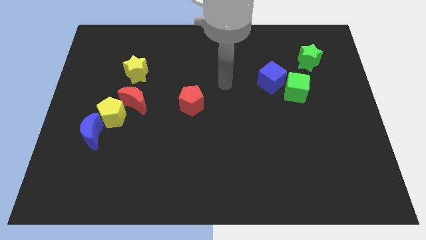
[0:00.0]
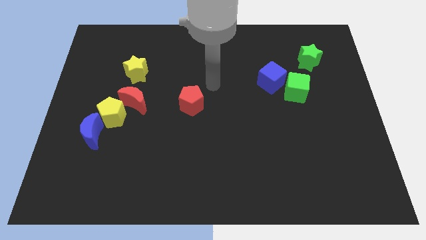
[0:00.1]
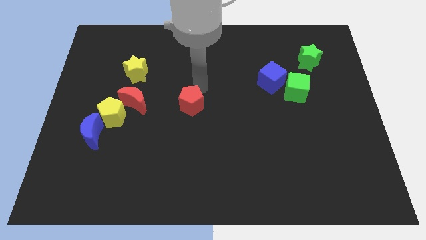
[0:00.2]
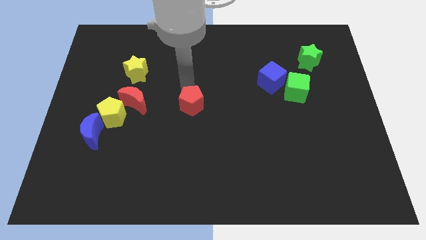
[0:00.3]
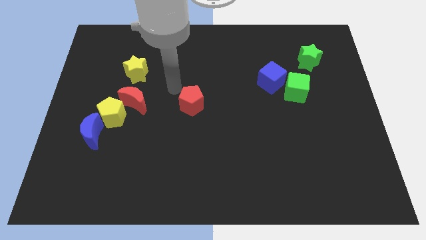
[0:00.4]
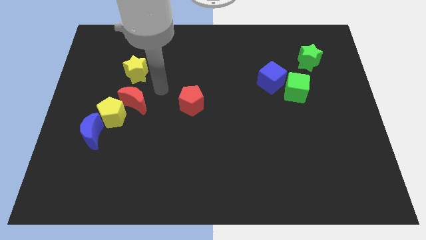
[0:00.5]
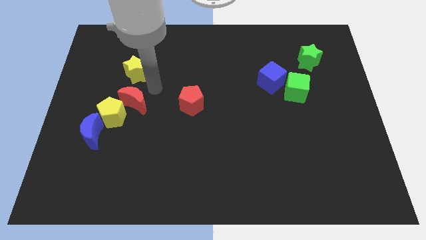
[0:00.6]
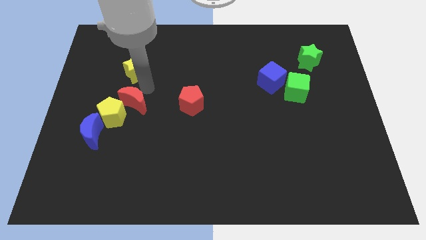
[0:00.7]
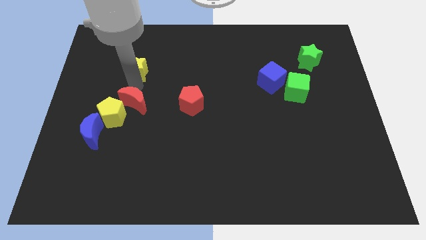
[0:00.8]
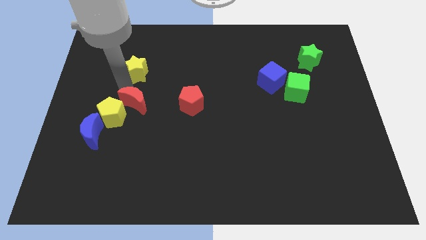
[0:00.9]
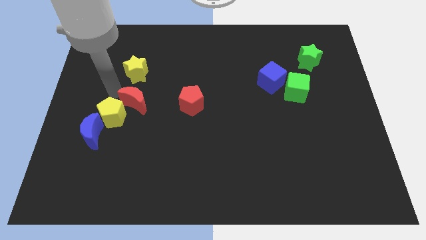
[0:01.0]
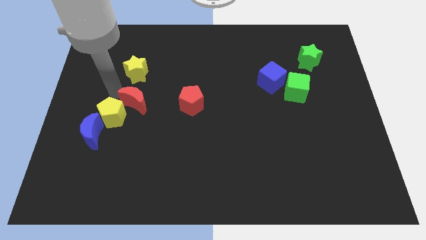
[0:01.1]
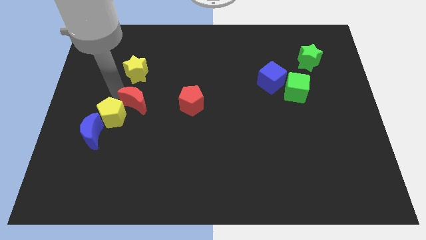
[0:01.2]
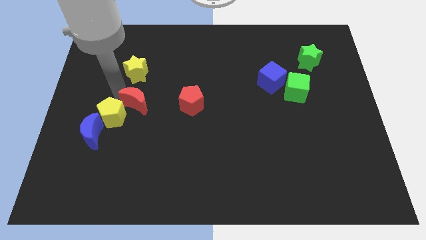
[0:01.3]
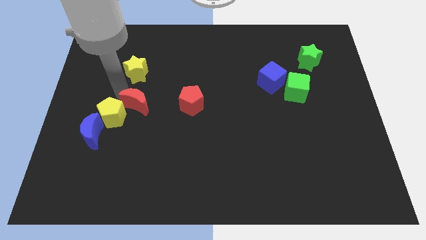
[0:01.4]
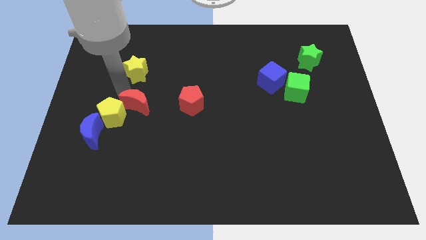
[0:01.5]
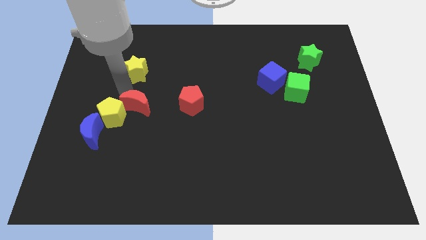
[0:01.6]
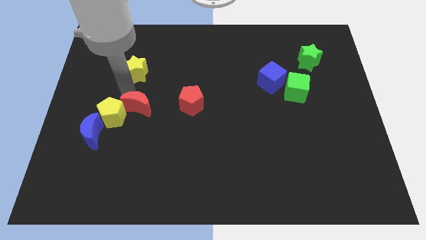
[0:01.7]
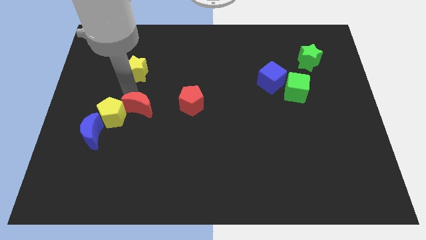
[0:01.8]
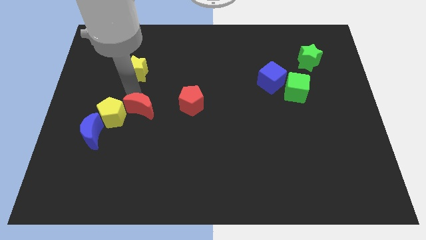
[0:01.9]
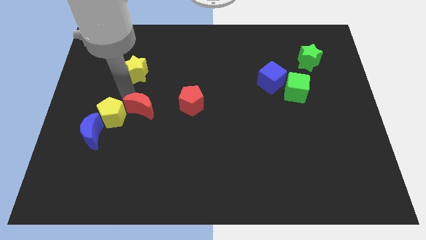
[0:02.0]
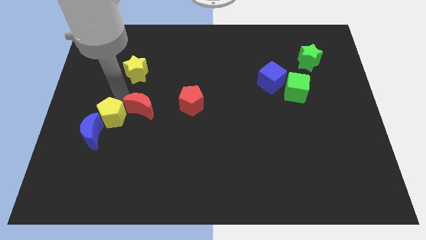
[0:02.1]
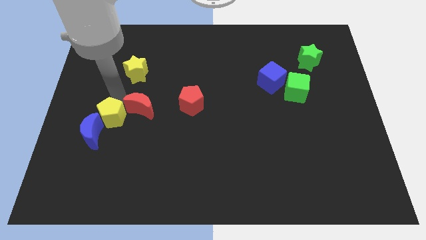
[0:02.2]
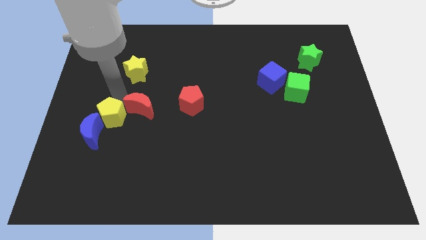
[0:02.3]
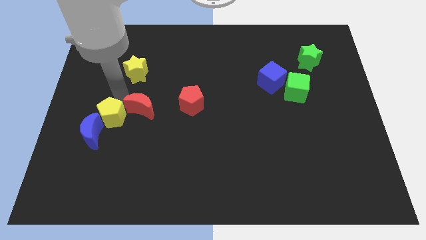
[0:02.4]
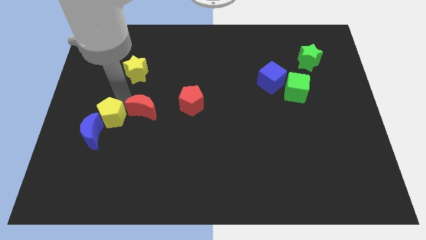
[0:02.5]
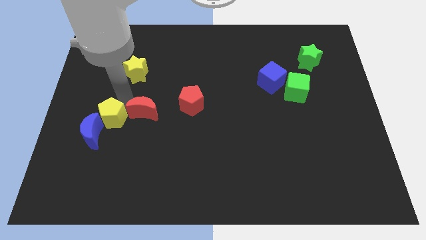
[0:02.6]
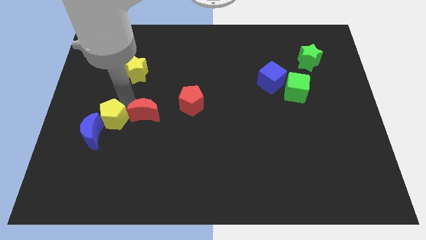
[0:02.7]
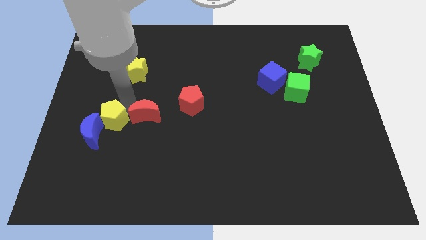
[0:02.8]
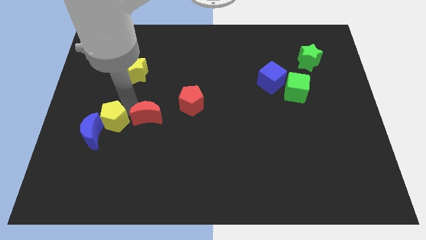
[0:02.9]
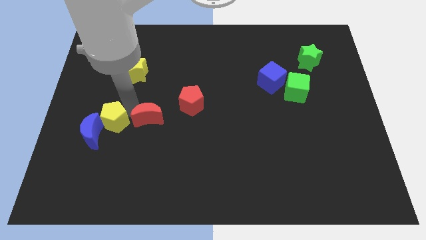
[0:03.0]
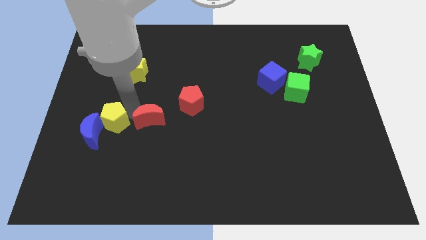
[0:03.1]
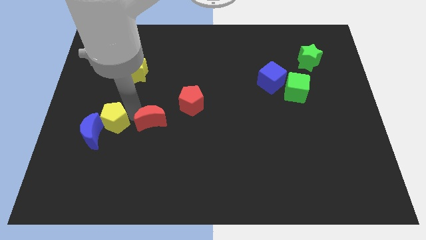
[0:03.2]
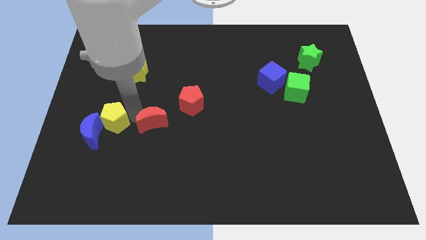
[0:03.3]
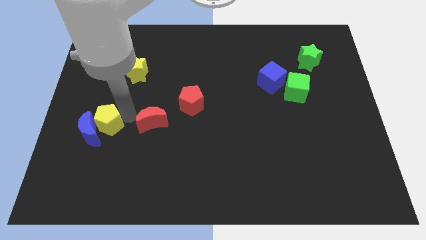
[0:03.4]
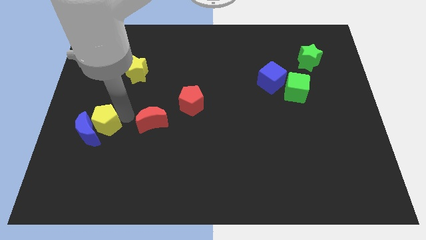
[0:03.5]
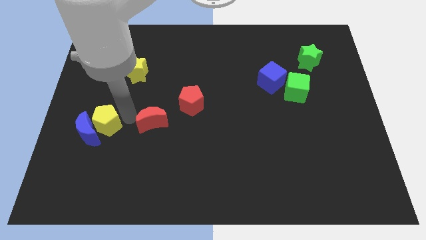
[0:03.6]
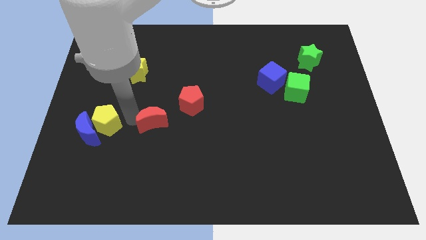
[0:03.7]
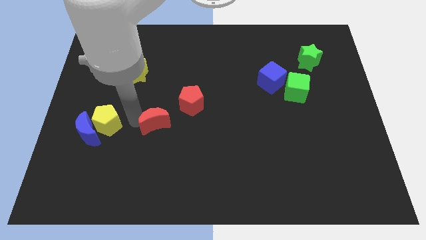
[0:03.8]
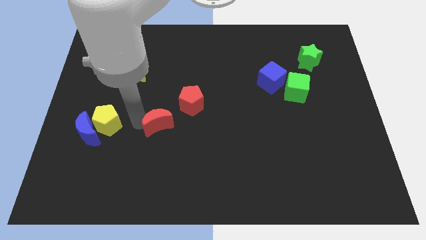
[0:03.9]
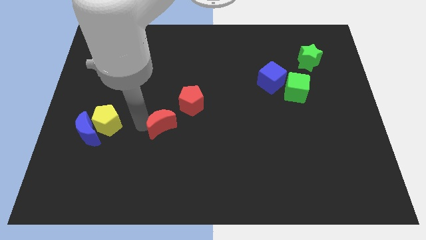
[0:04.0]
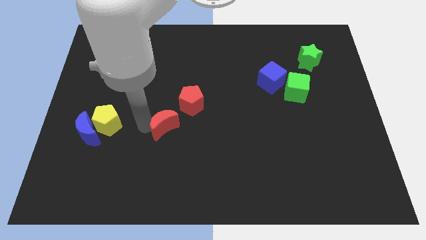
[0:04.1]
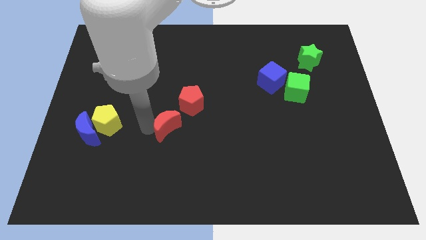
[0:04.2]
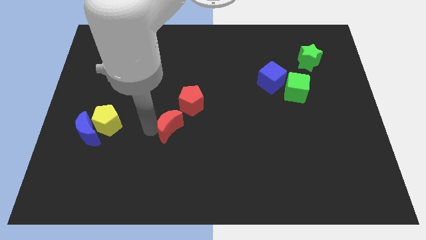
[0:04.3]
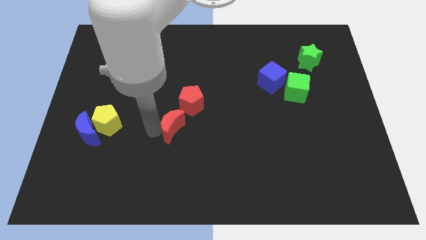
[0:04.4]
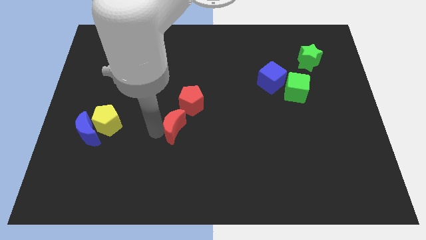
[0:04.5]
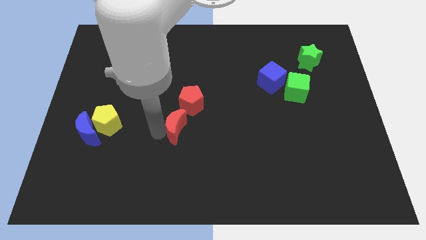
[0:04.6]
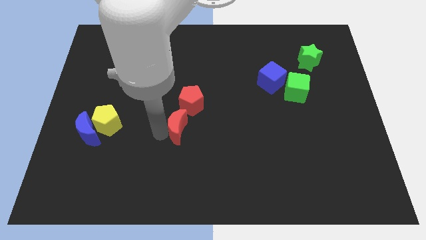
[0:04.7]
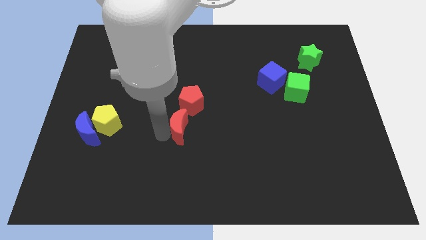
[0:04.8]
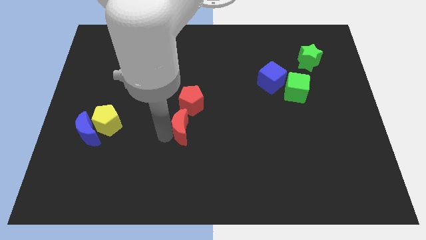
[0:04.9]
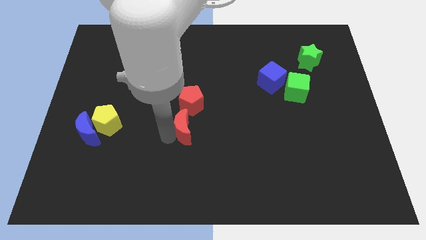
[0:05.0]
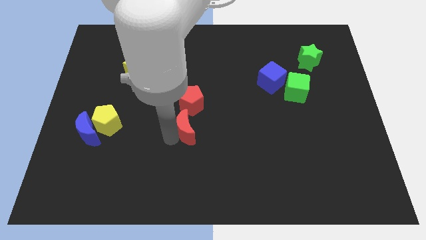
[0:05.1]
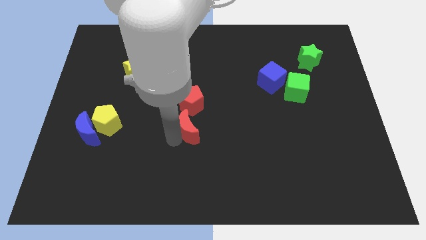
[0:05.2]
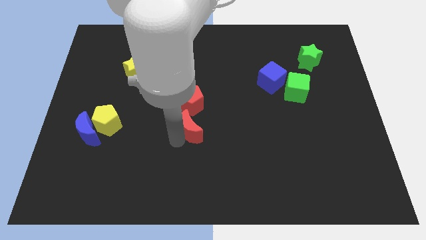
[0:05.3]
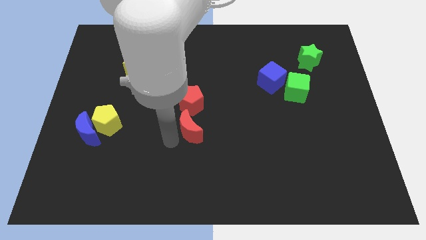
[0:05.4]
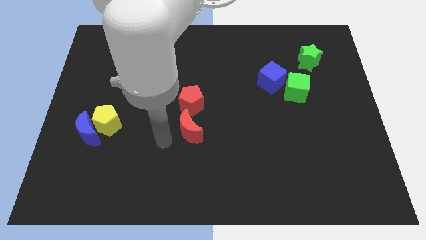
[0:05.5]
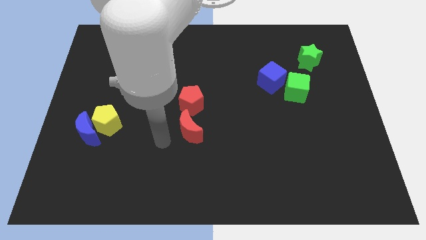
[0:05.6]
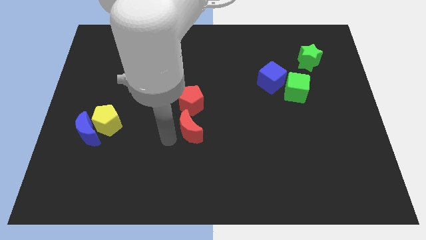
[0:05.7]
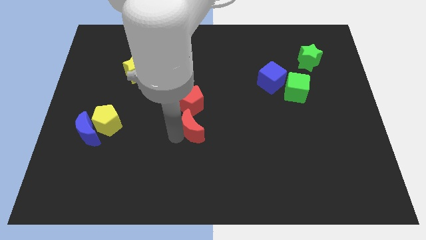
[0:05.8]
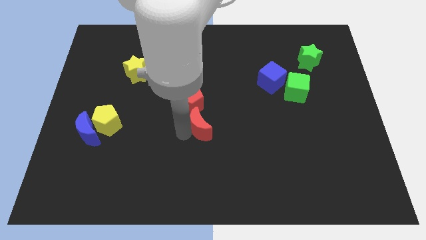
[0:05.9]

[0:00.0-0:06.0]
move the red moon diagonally down and to the right of the red pentagon
